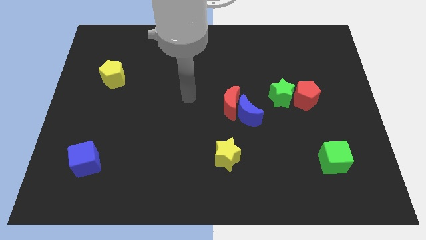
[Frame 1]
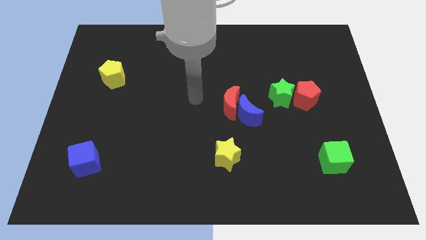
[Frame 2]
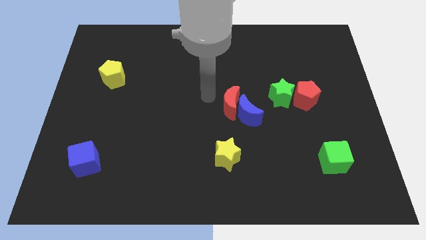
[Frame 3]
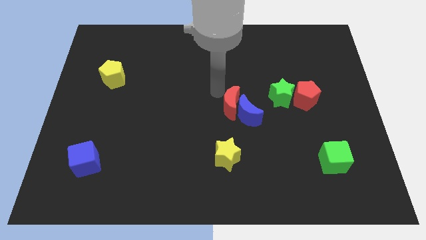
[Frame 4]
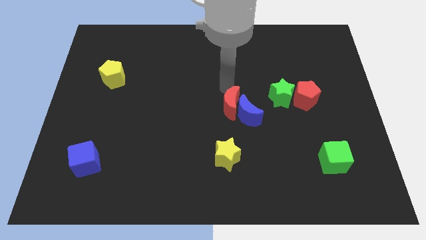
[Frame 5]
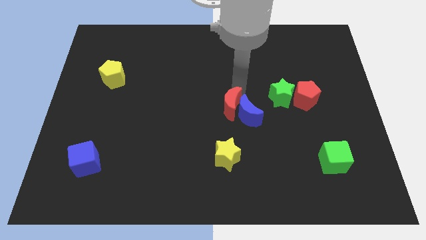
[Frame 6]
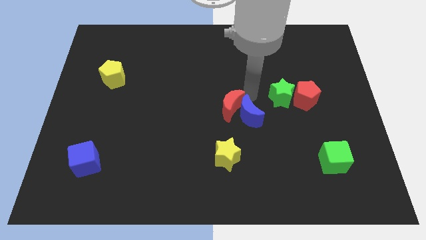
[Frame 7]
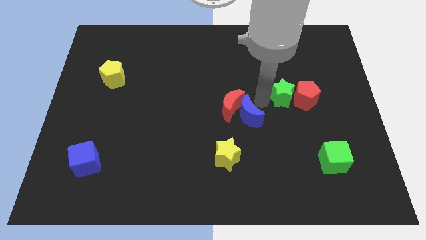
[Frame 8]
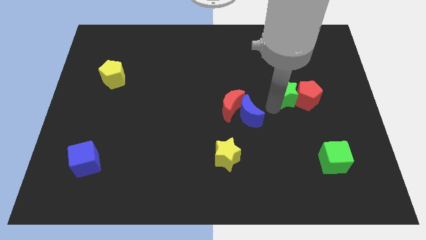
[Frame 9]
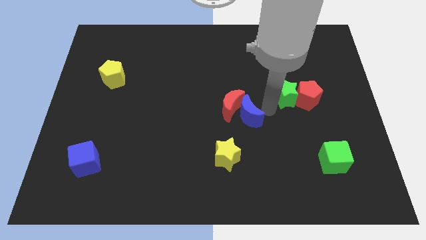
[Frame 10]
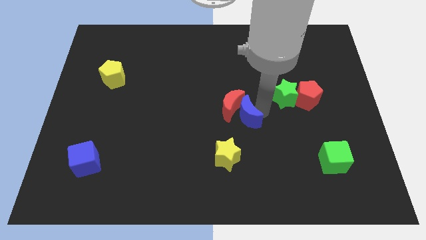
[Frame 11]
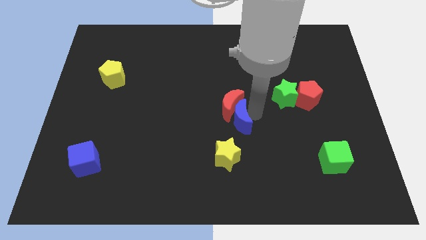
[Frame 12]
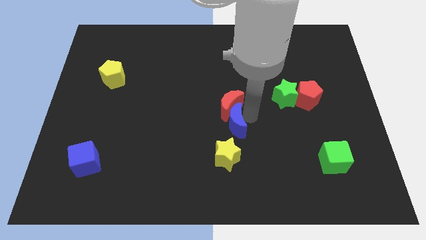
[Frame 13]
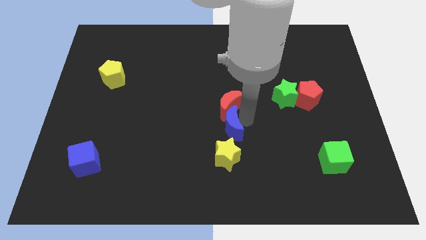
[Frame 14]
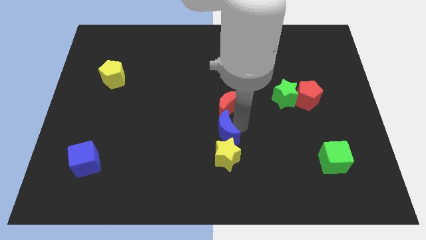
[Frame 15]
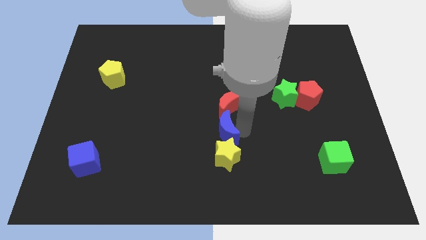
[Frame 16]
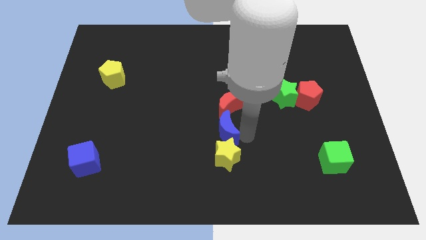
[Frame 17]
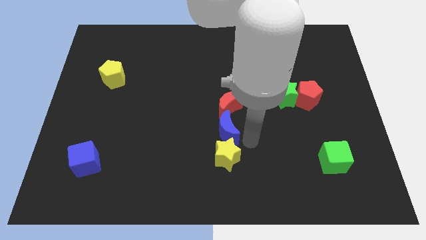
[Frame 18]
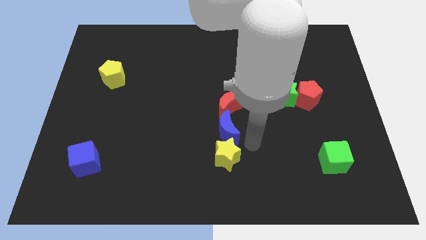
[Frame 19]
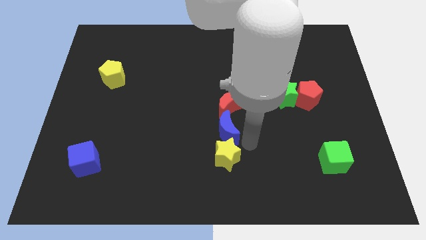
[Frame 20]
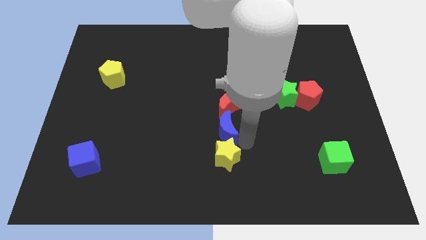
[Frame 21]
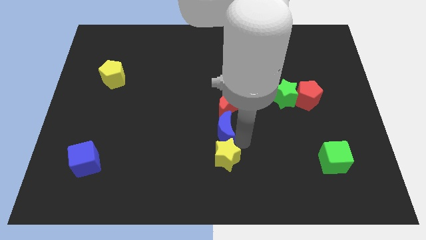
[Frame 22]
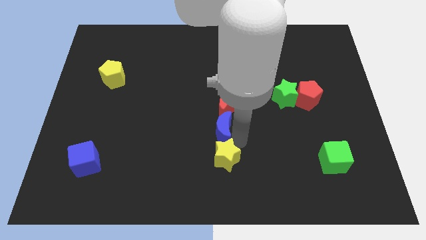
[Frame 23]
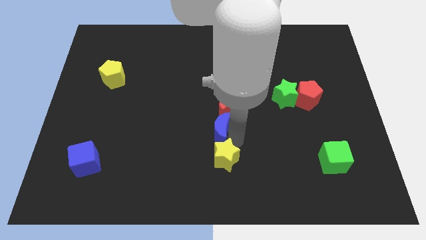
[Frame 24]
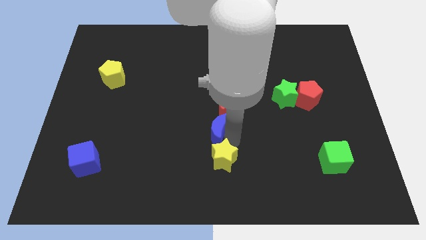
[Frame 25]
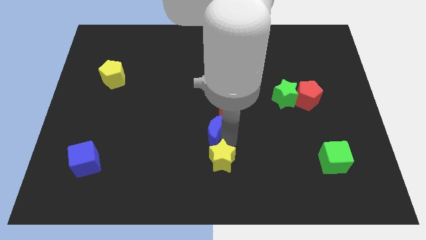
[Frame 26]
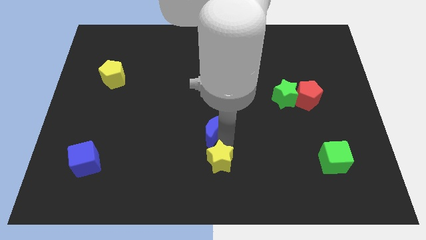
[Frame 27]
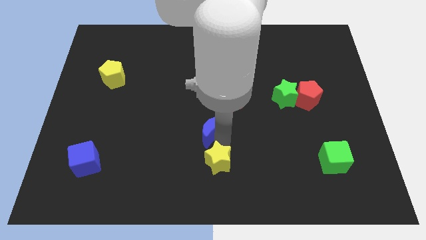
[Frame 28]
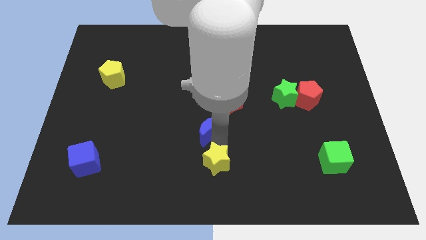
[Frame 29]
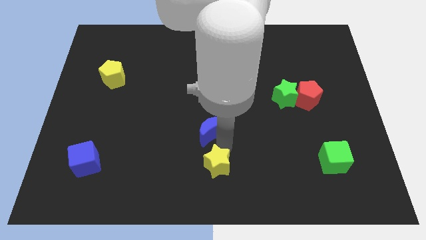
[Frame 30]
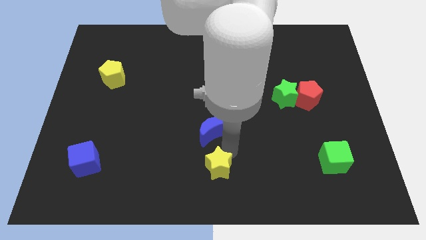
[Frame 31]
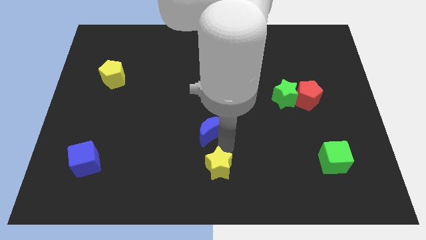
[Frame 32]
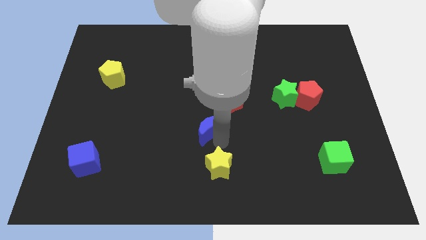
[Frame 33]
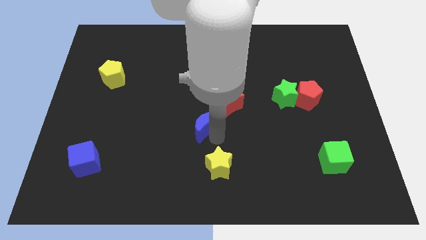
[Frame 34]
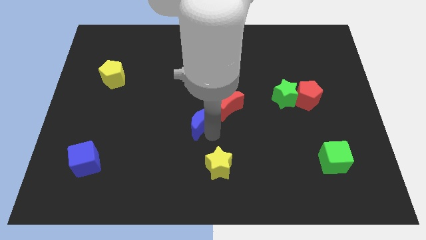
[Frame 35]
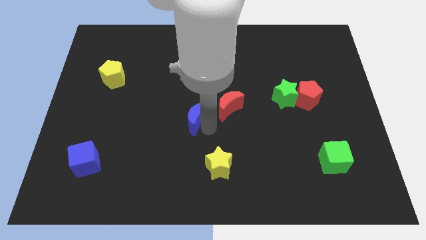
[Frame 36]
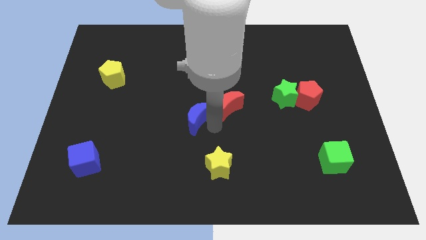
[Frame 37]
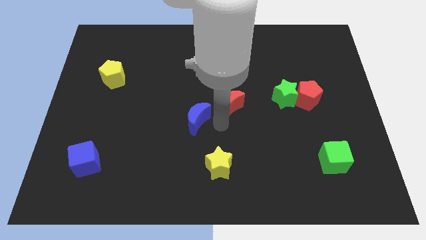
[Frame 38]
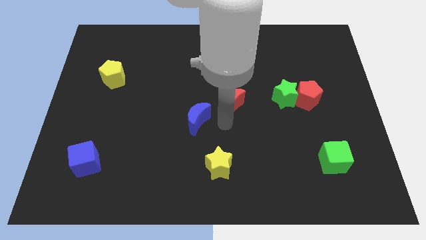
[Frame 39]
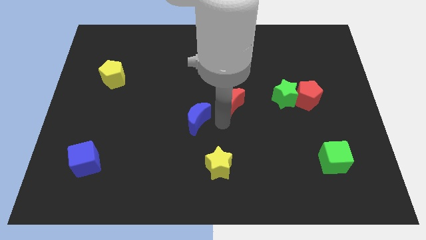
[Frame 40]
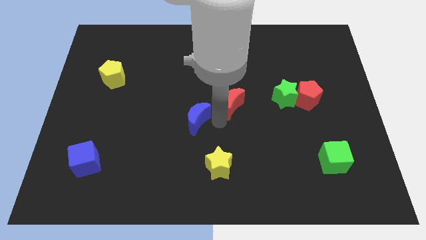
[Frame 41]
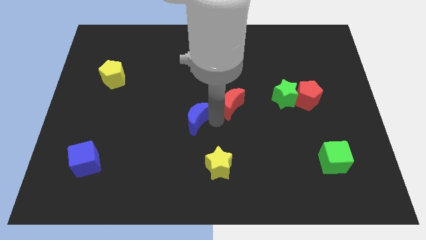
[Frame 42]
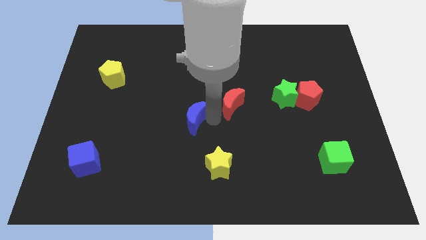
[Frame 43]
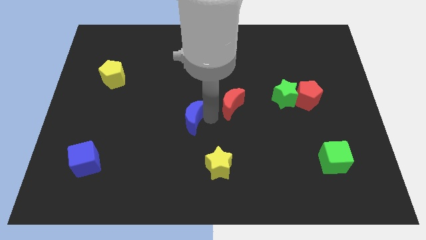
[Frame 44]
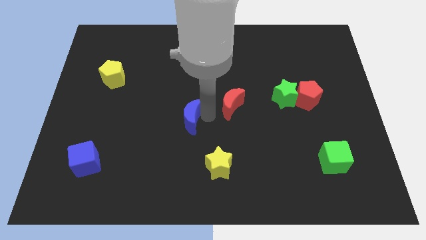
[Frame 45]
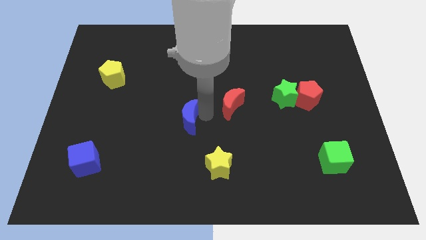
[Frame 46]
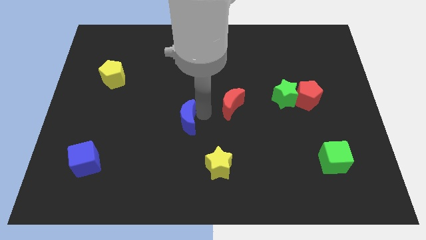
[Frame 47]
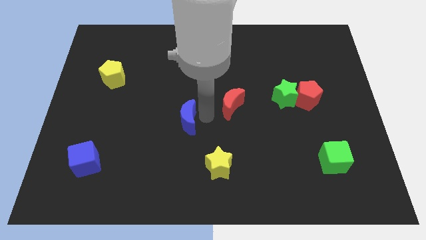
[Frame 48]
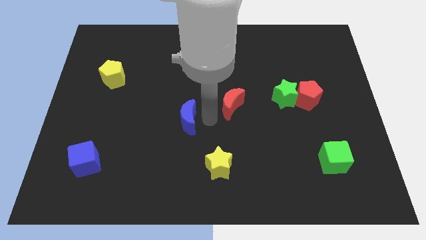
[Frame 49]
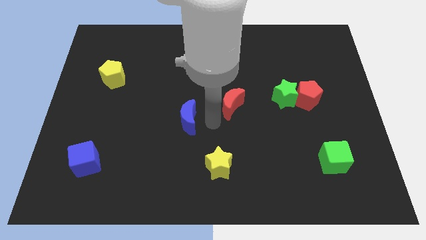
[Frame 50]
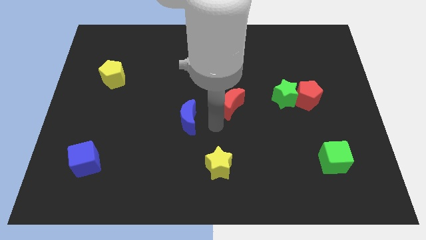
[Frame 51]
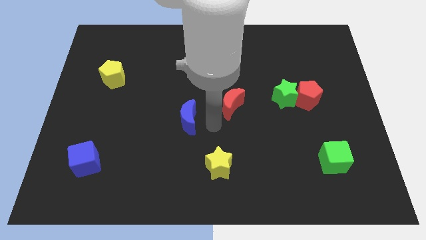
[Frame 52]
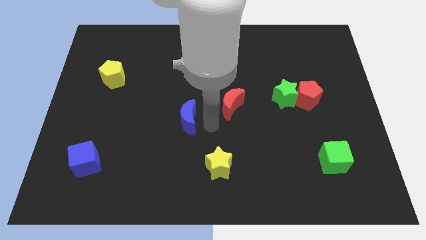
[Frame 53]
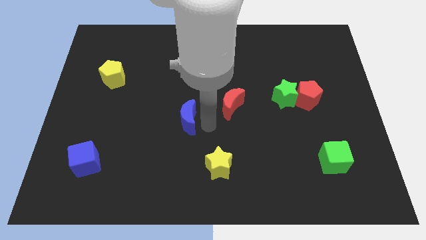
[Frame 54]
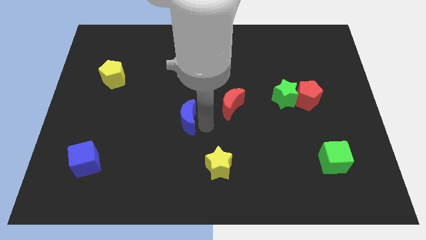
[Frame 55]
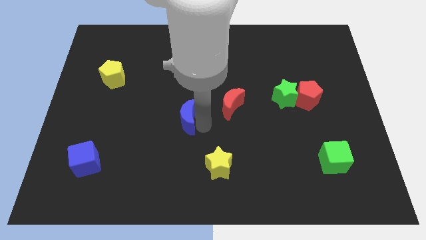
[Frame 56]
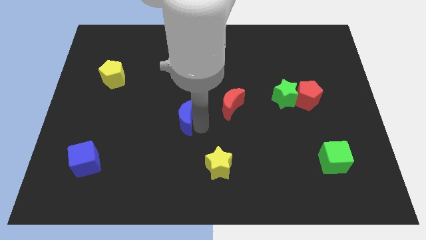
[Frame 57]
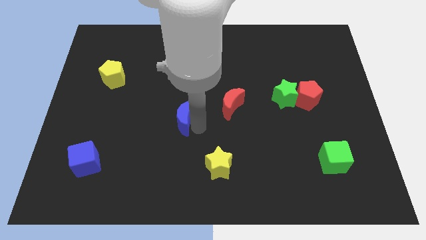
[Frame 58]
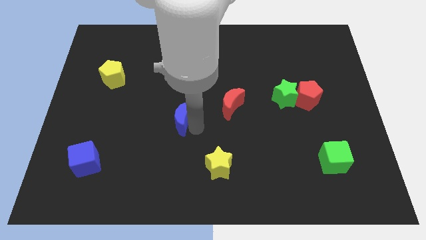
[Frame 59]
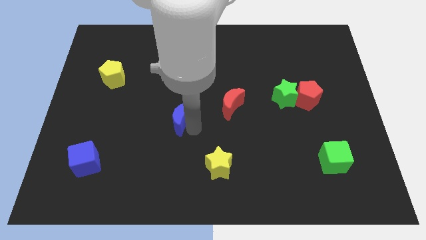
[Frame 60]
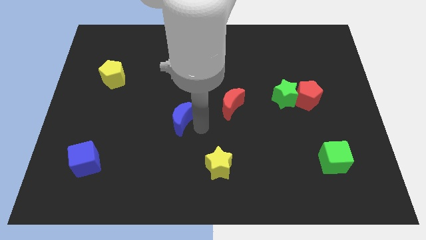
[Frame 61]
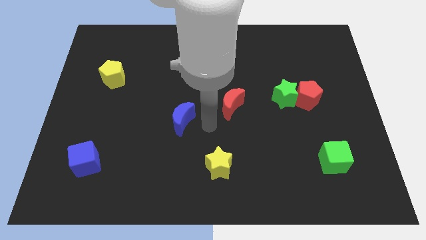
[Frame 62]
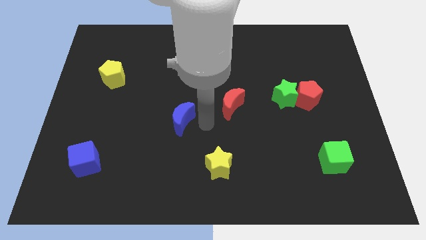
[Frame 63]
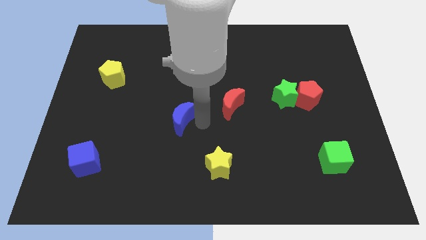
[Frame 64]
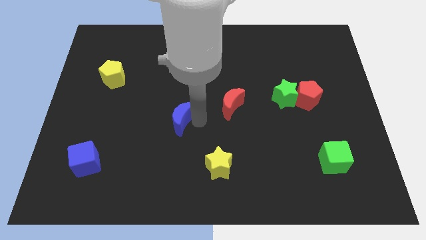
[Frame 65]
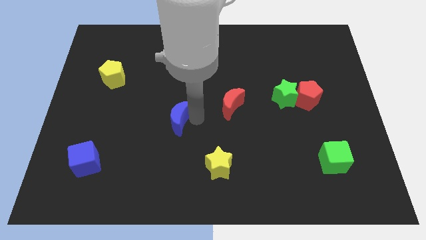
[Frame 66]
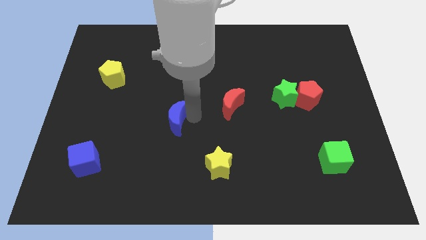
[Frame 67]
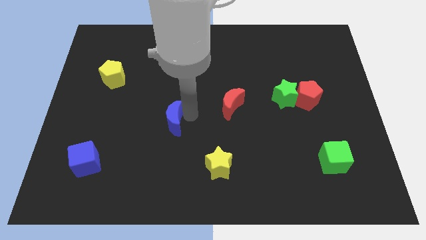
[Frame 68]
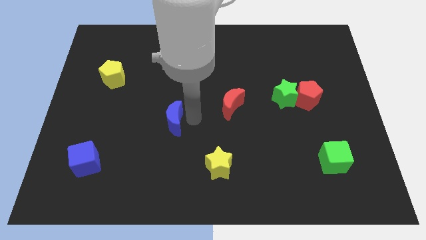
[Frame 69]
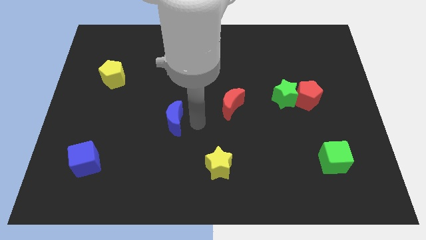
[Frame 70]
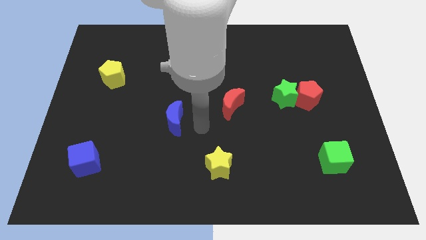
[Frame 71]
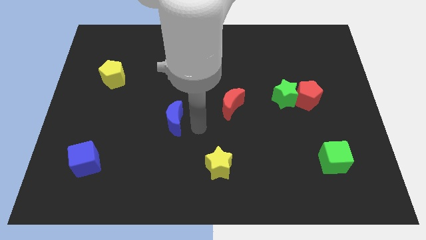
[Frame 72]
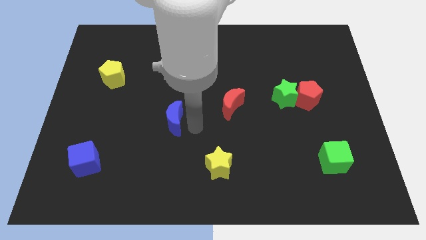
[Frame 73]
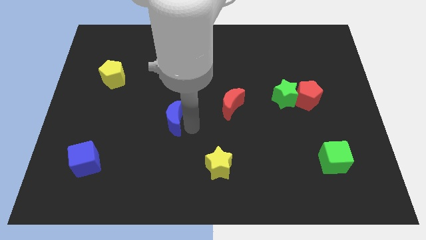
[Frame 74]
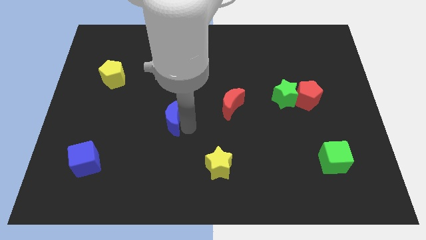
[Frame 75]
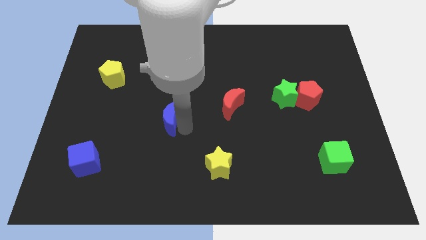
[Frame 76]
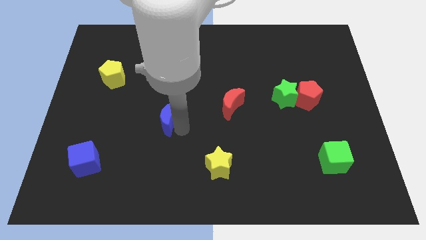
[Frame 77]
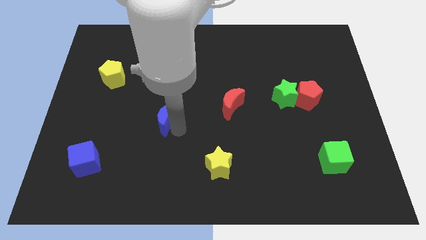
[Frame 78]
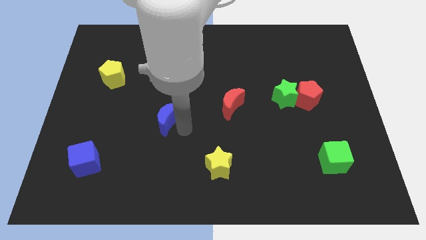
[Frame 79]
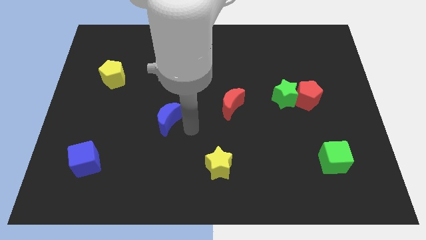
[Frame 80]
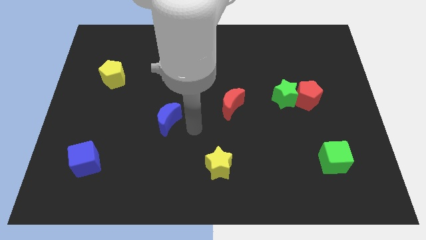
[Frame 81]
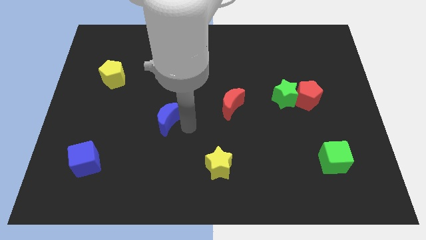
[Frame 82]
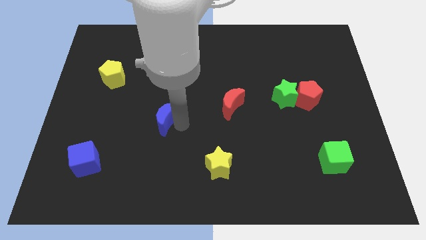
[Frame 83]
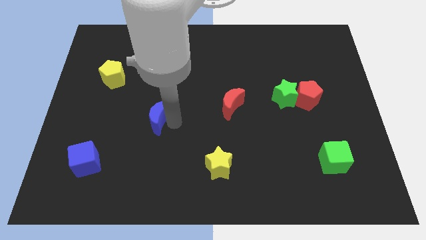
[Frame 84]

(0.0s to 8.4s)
push the blue moon to the left
